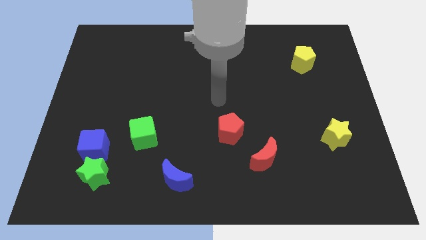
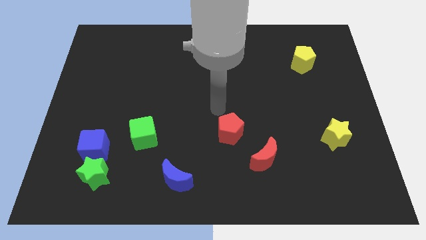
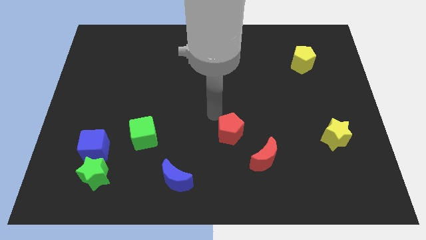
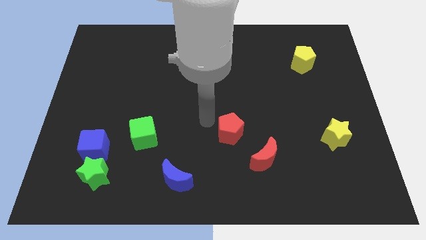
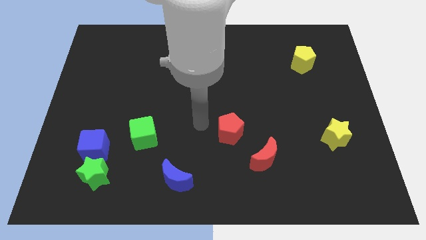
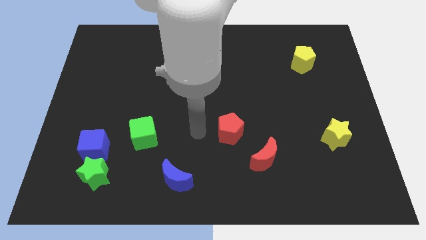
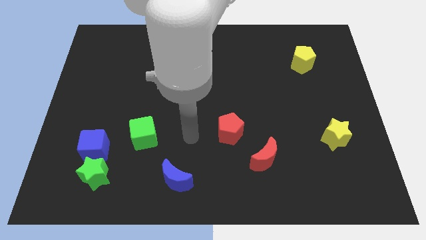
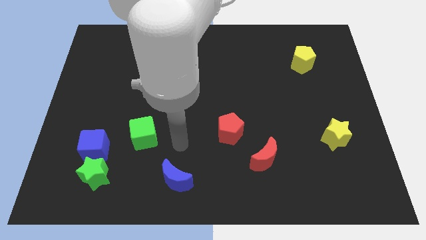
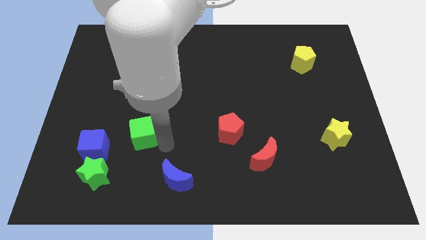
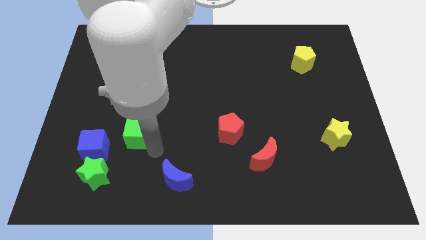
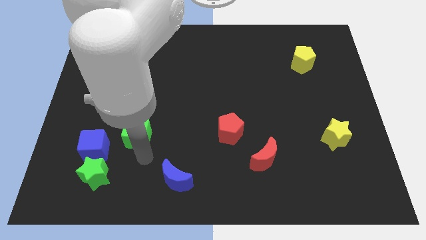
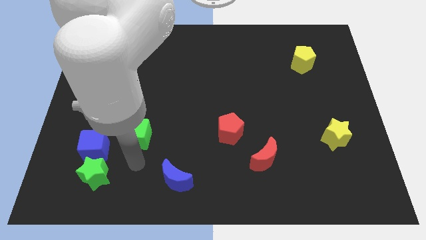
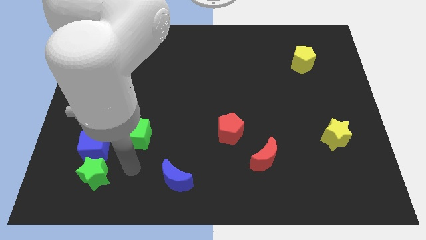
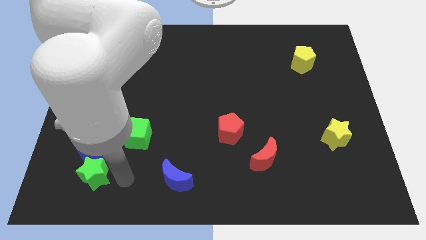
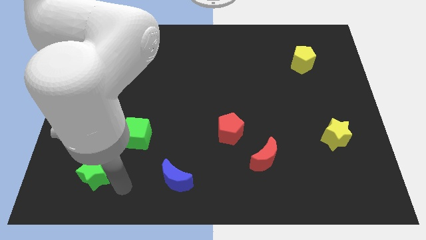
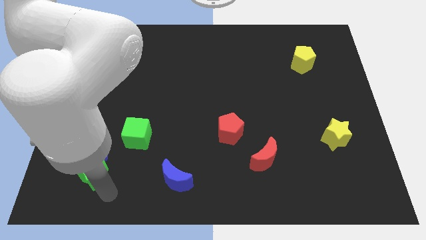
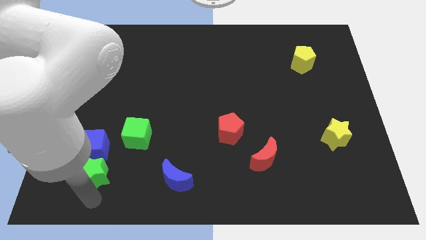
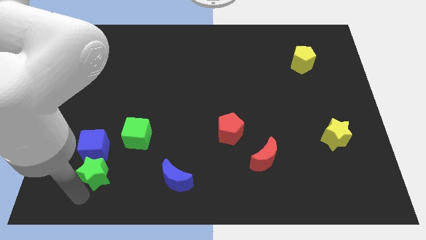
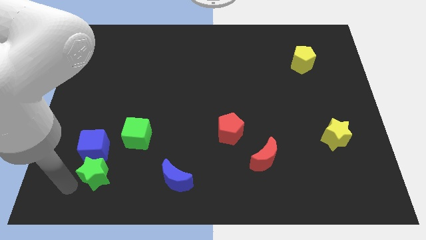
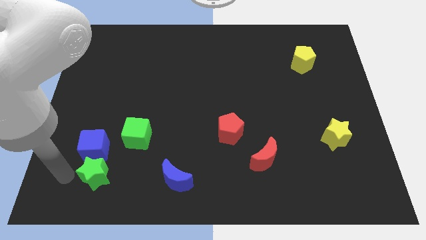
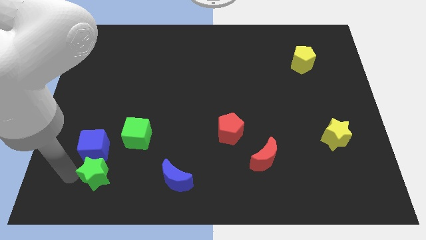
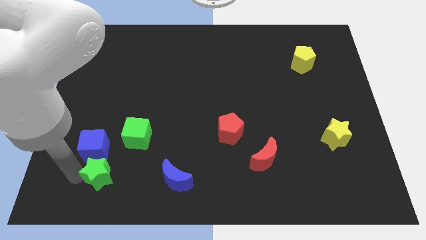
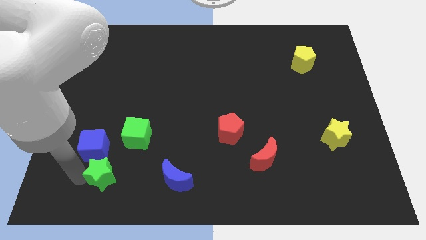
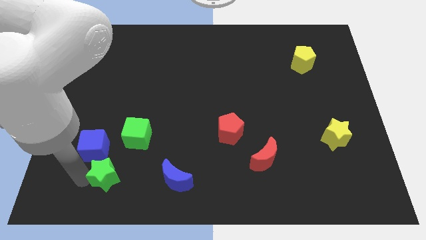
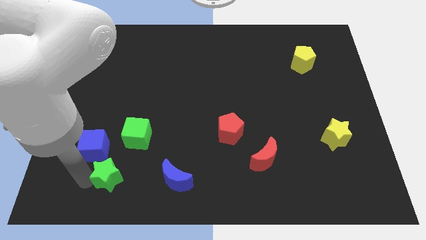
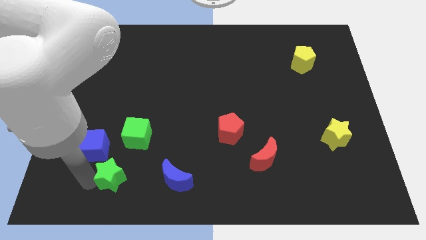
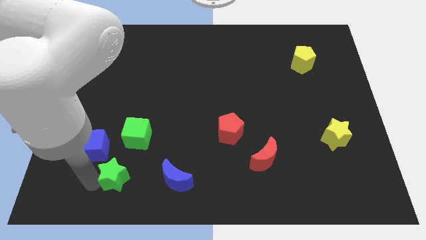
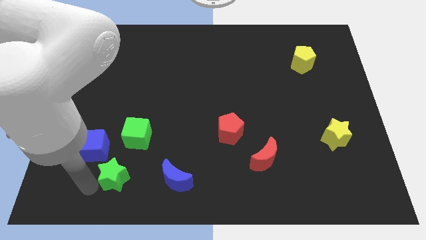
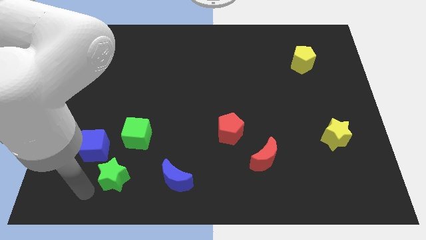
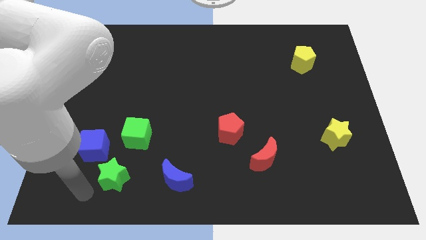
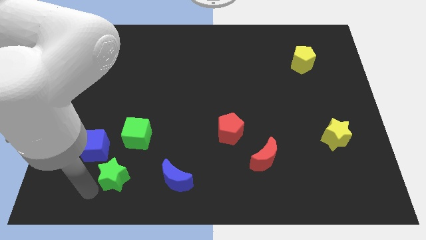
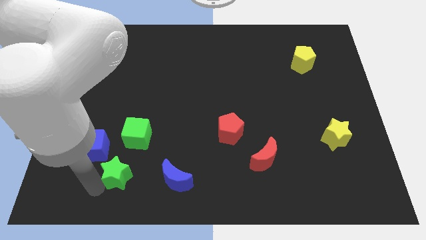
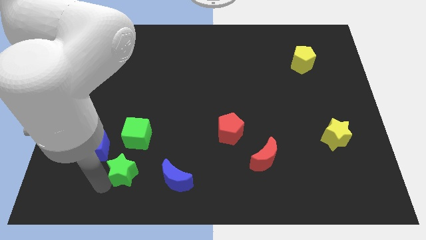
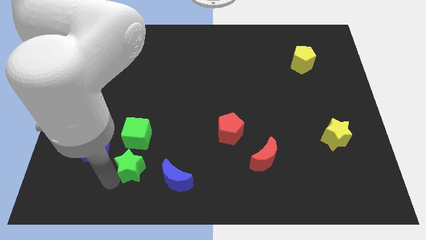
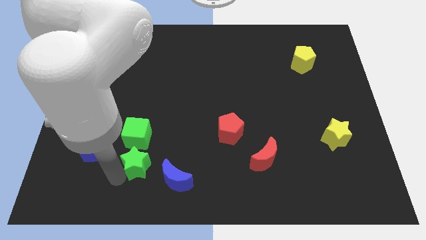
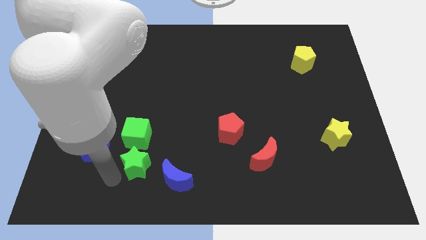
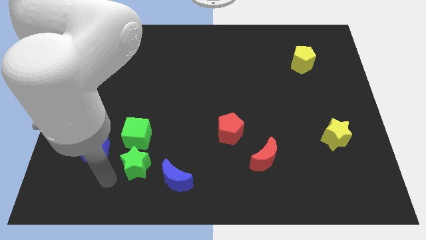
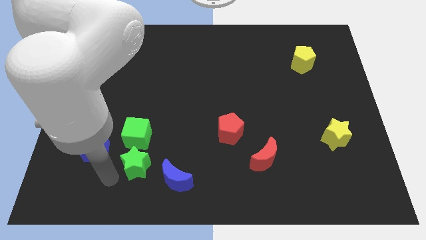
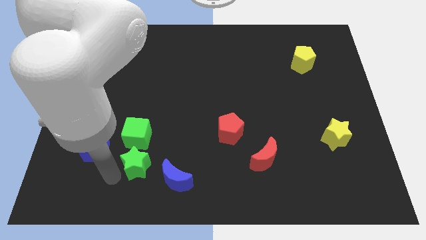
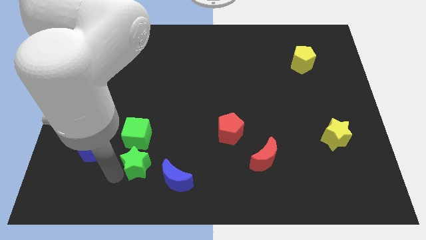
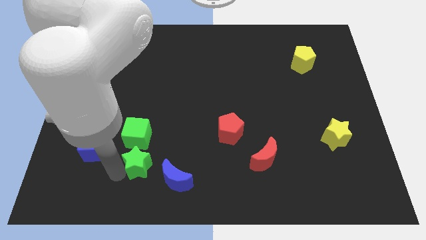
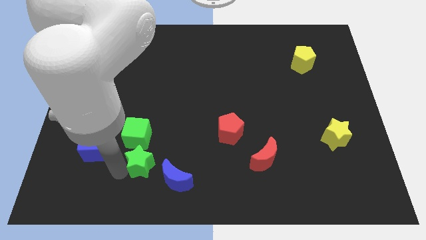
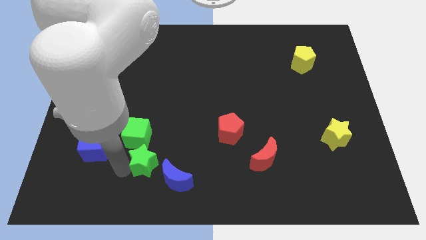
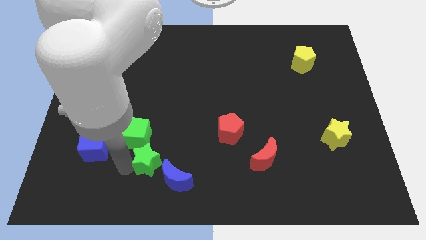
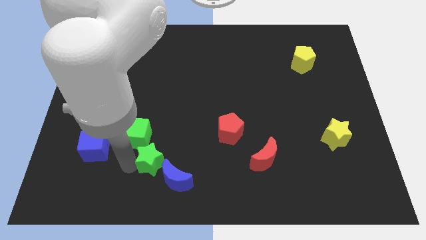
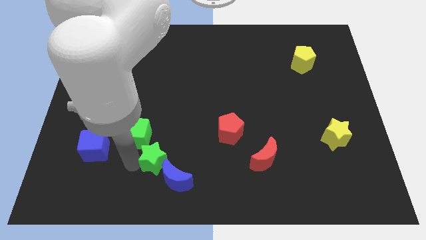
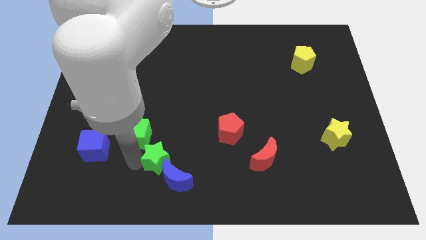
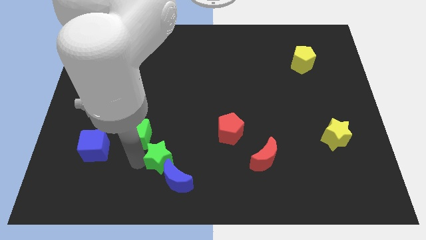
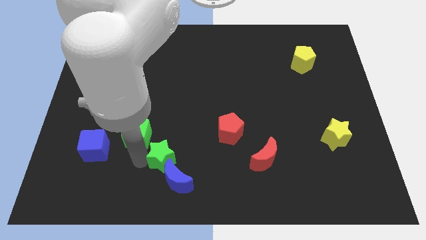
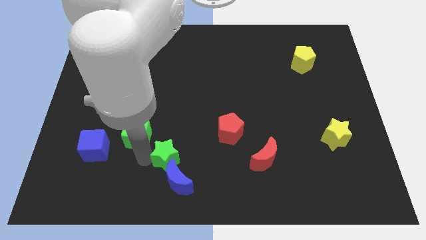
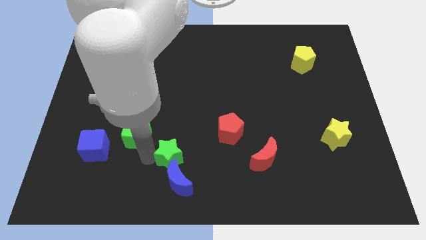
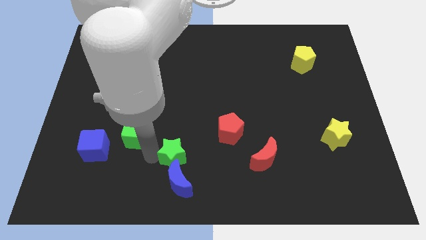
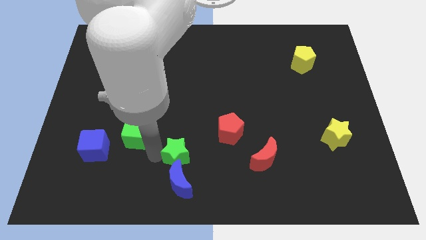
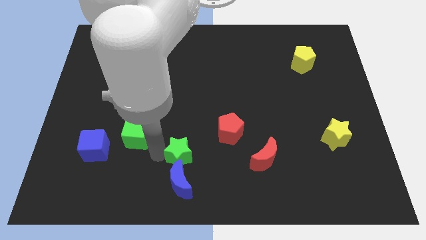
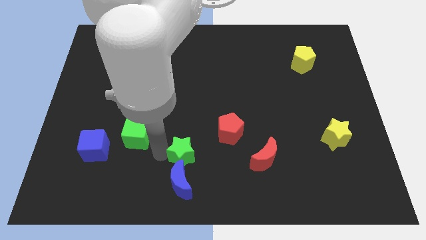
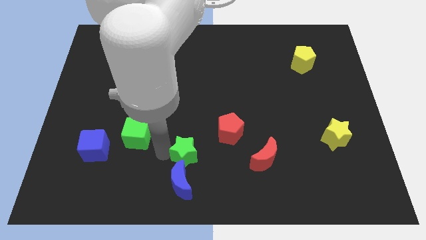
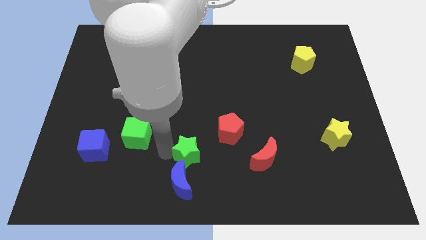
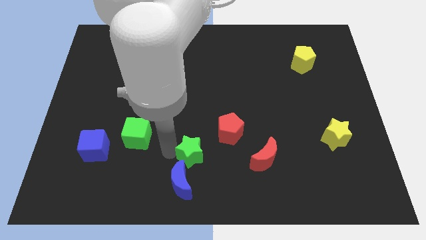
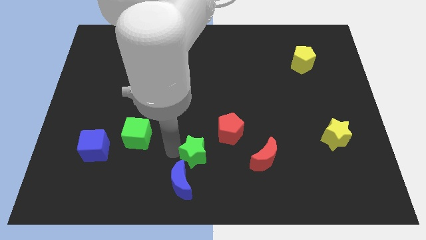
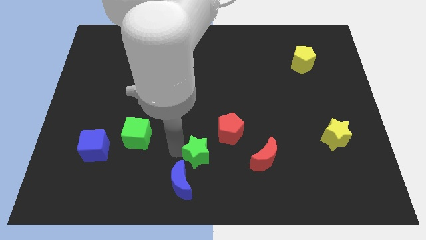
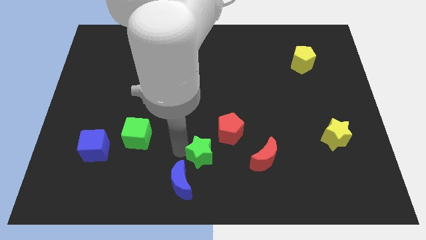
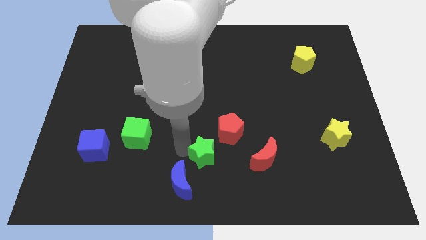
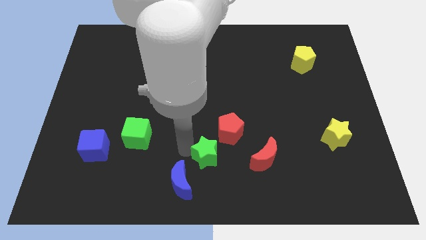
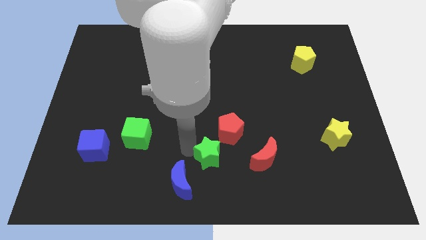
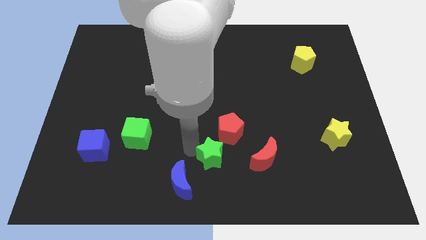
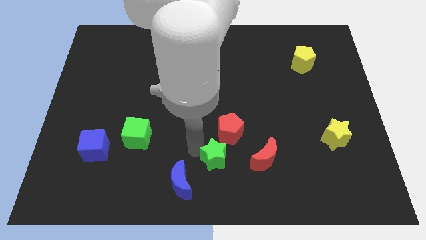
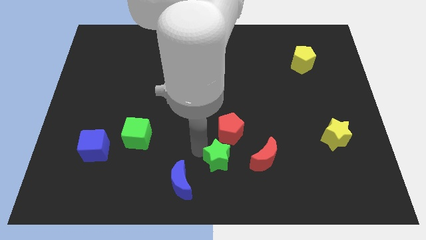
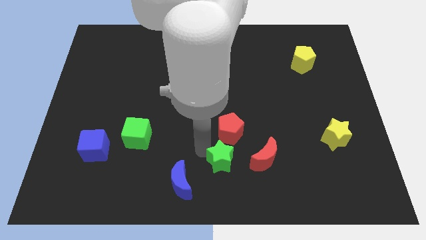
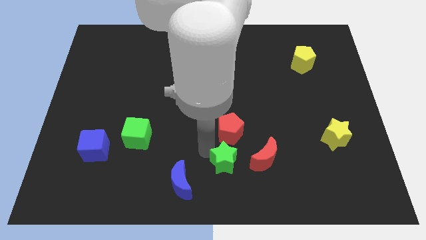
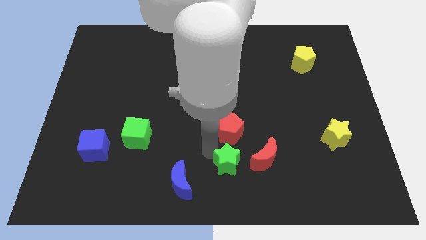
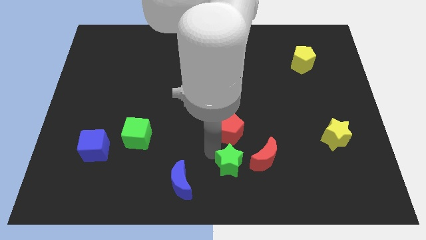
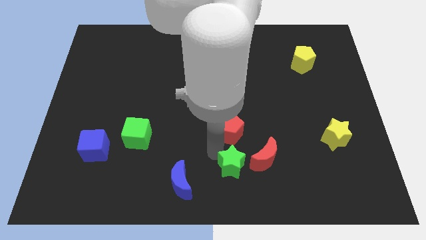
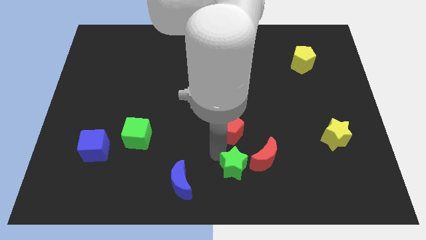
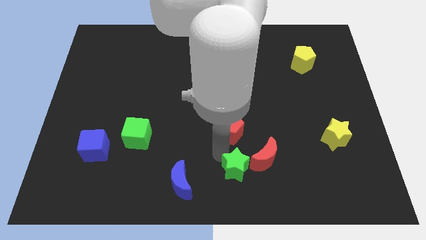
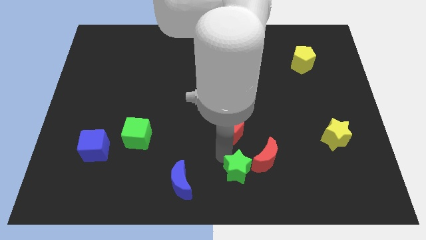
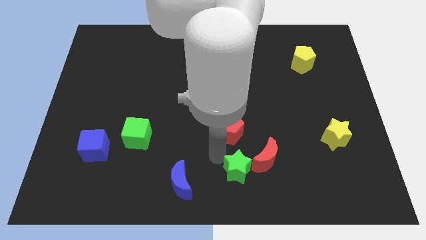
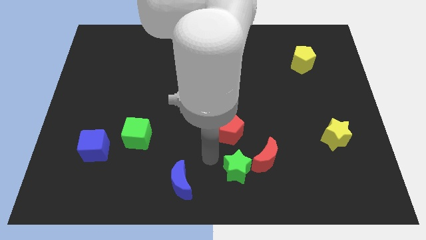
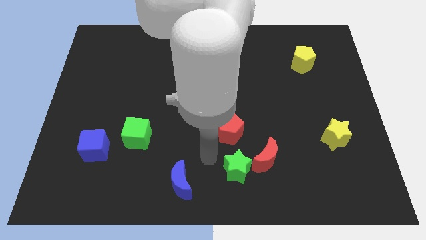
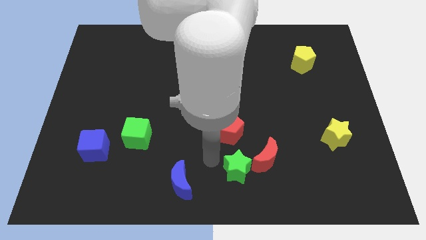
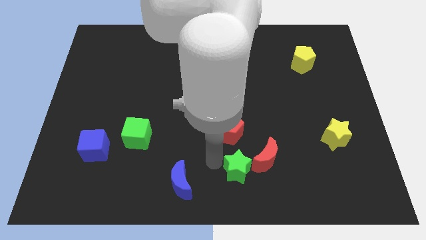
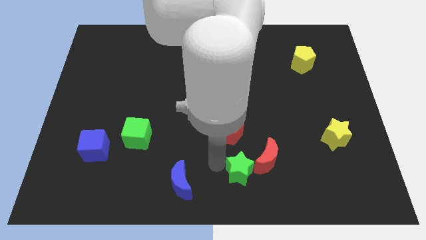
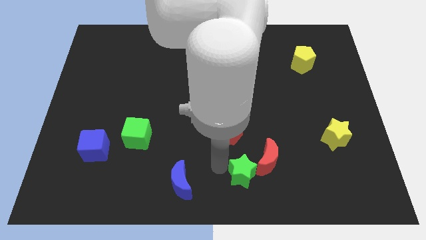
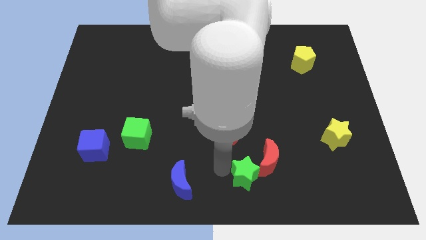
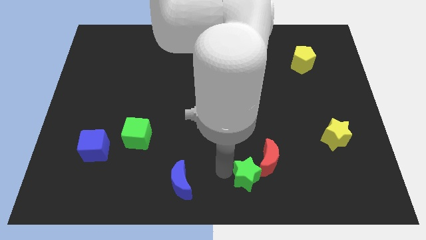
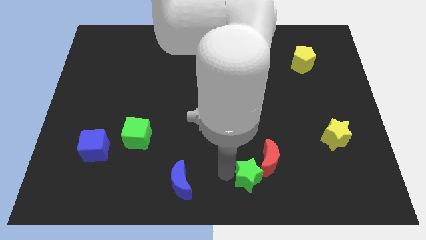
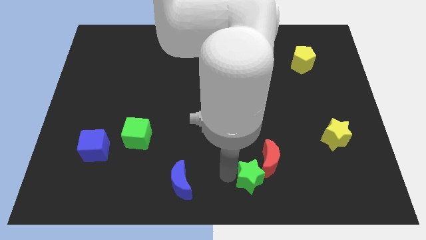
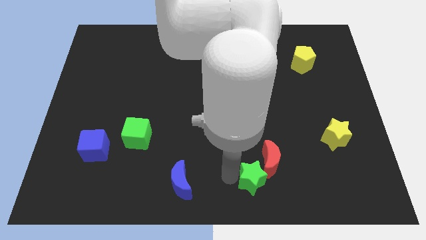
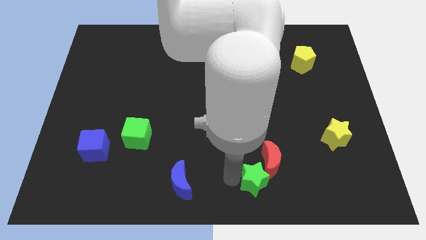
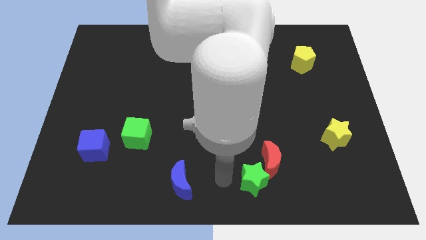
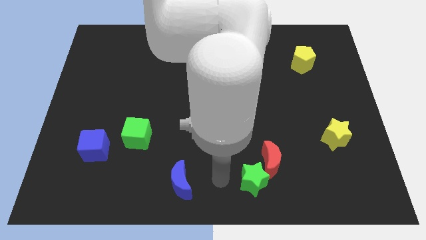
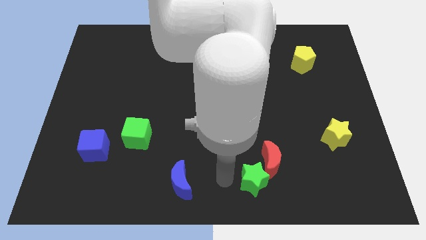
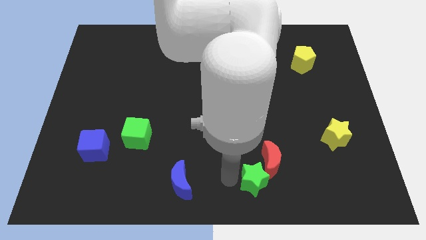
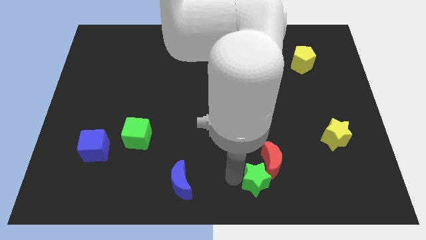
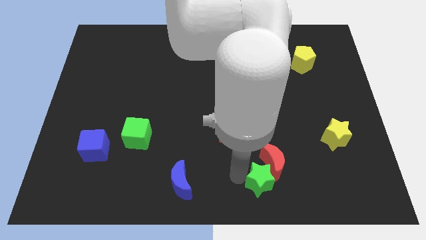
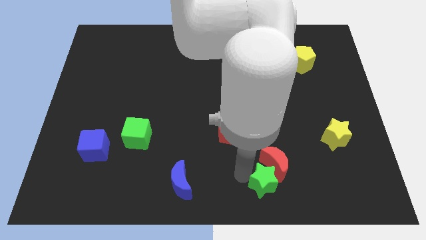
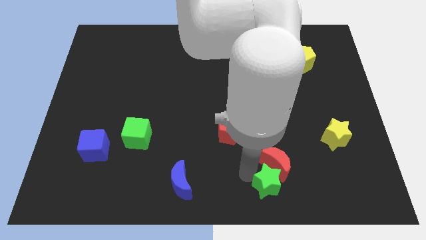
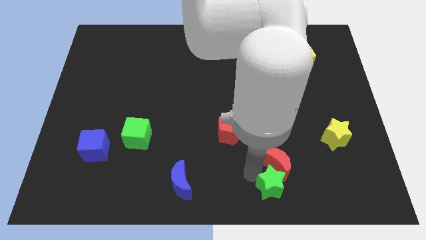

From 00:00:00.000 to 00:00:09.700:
move the green star diagonally down and to the right of the red moon
